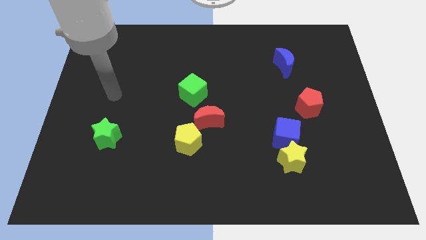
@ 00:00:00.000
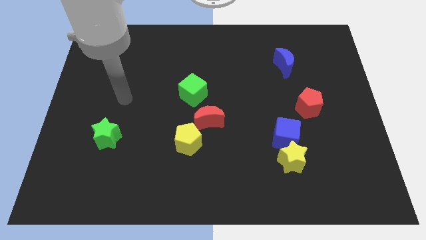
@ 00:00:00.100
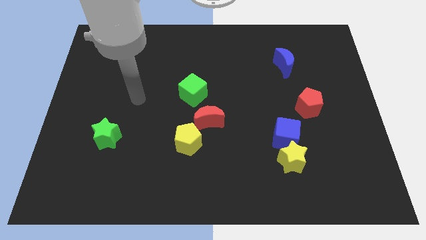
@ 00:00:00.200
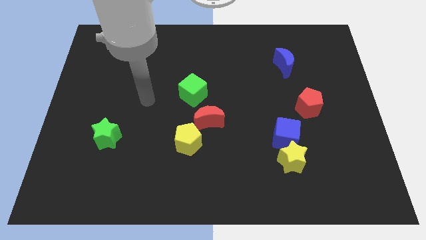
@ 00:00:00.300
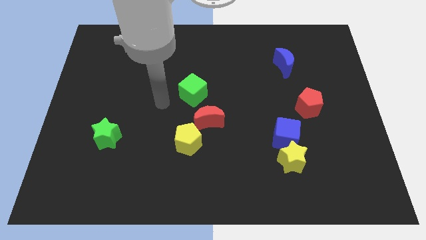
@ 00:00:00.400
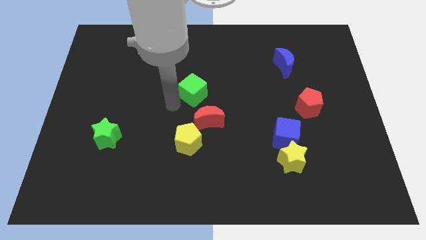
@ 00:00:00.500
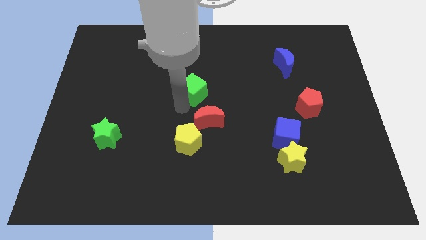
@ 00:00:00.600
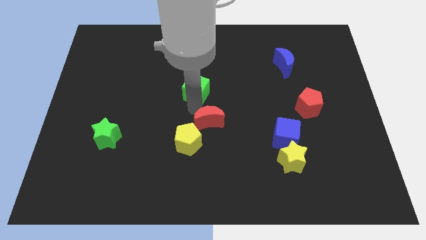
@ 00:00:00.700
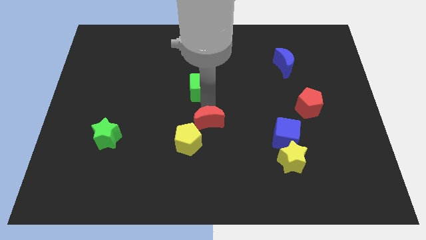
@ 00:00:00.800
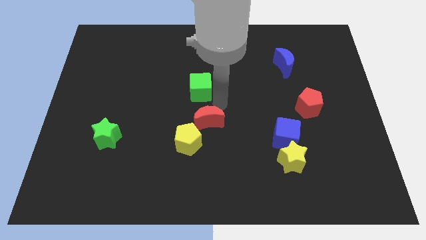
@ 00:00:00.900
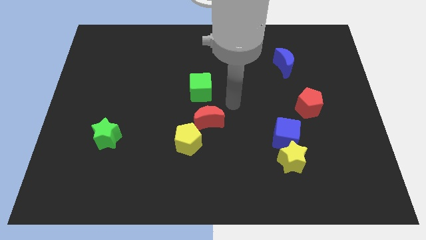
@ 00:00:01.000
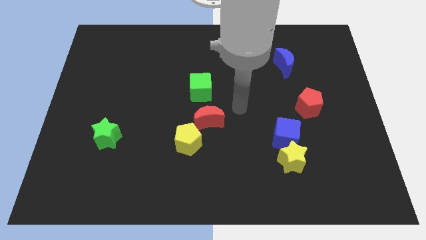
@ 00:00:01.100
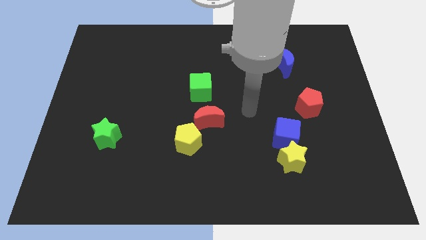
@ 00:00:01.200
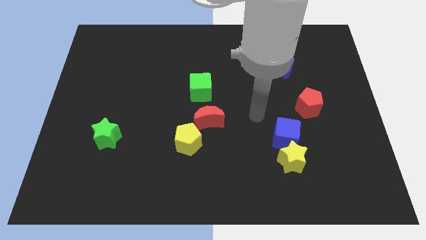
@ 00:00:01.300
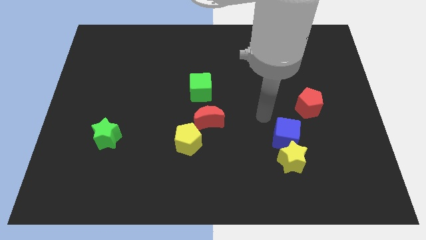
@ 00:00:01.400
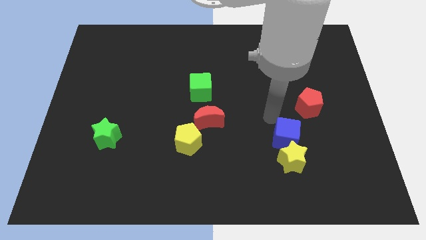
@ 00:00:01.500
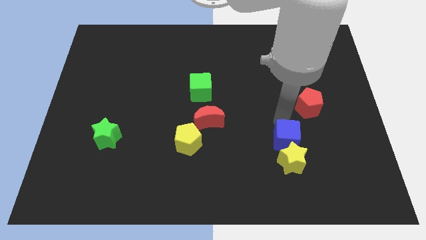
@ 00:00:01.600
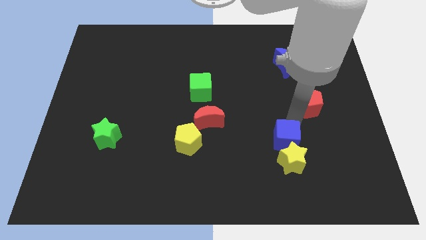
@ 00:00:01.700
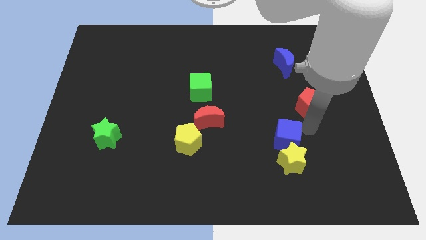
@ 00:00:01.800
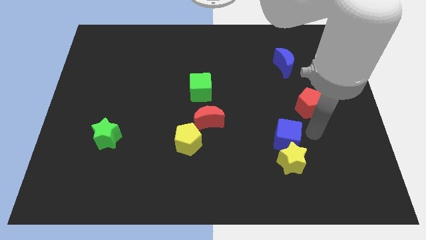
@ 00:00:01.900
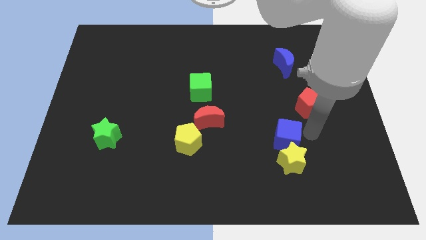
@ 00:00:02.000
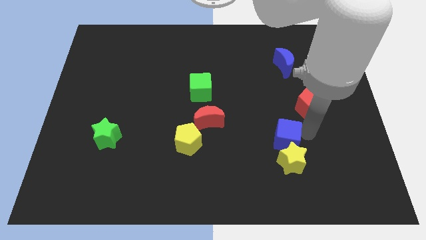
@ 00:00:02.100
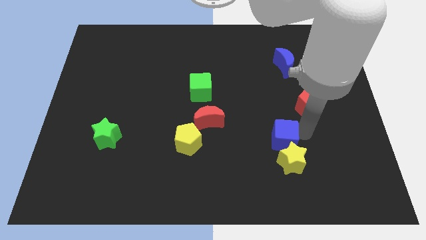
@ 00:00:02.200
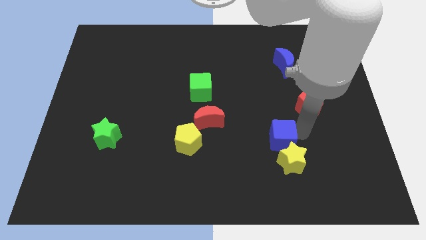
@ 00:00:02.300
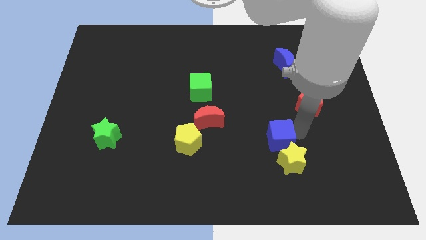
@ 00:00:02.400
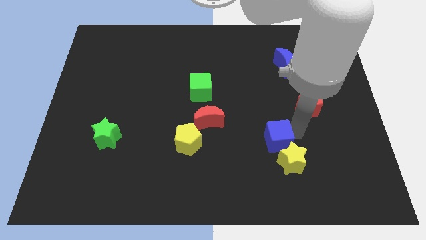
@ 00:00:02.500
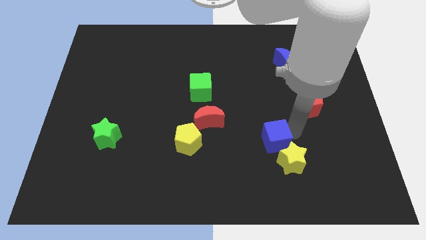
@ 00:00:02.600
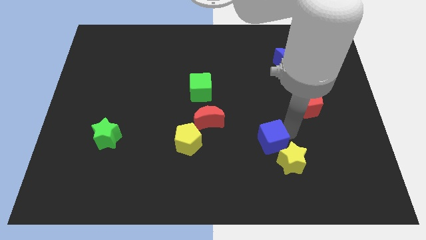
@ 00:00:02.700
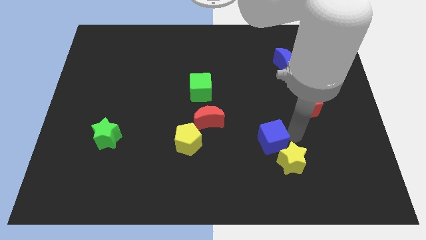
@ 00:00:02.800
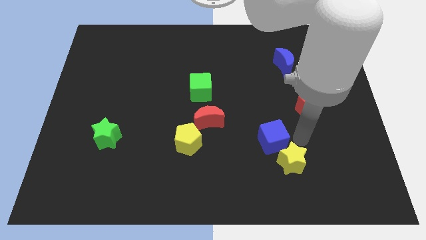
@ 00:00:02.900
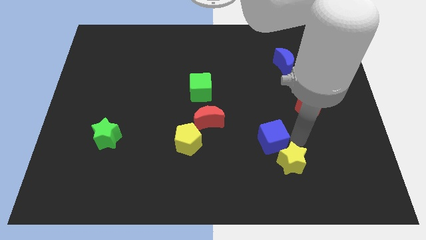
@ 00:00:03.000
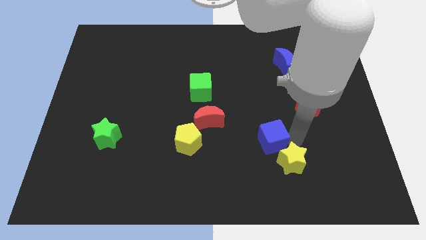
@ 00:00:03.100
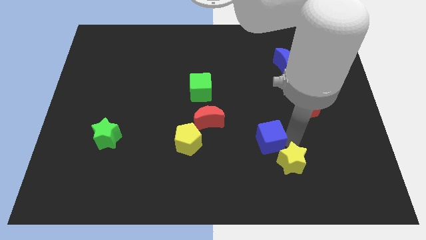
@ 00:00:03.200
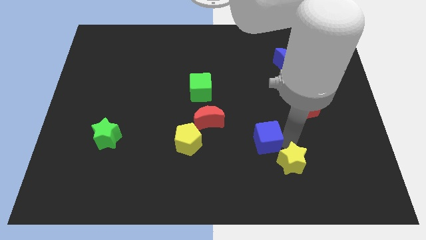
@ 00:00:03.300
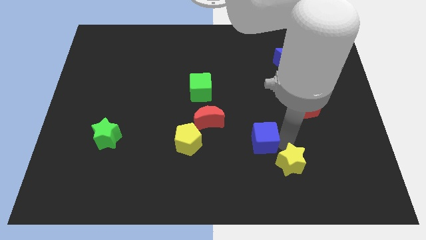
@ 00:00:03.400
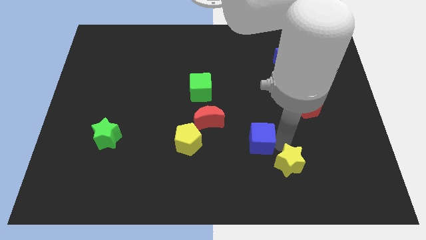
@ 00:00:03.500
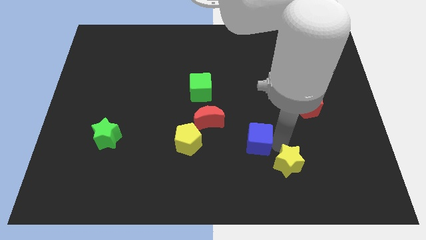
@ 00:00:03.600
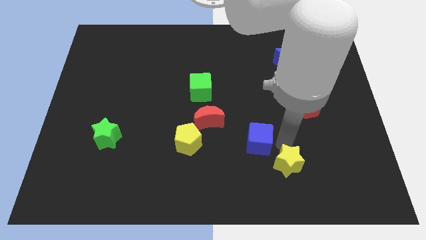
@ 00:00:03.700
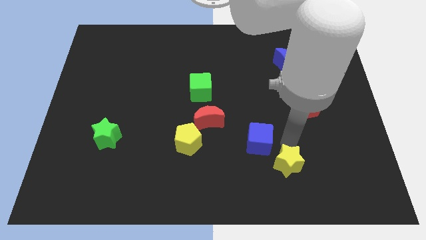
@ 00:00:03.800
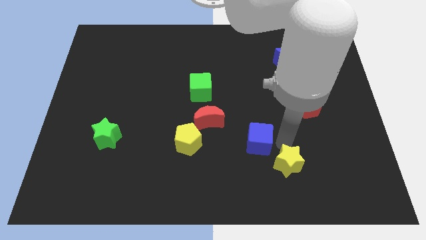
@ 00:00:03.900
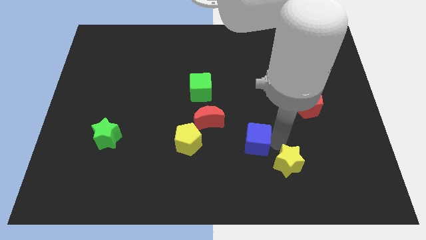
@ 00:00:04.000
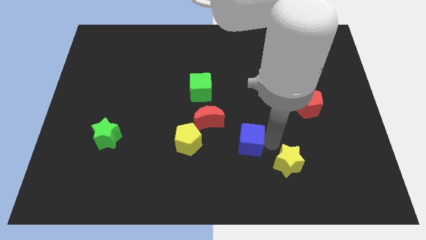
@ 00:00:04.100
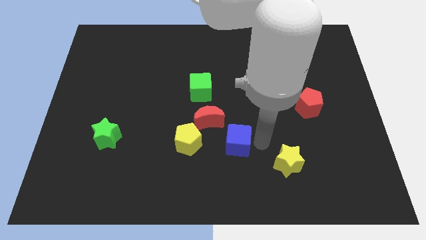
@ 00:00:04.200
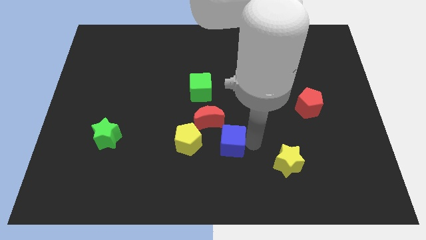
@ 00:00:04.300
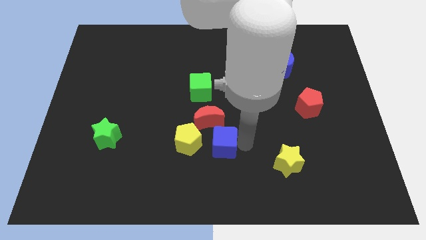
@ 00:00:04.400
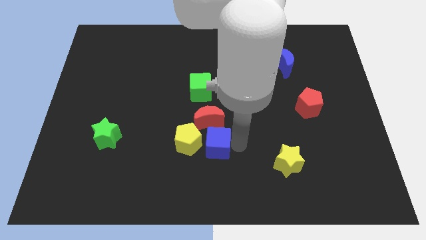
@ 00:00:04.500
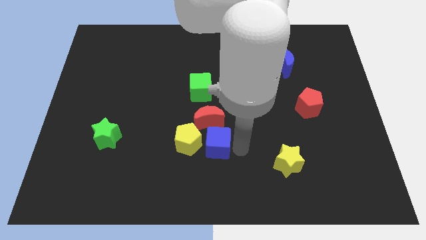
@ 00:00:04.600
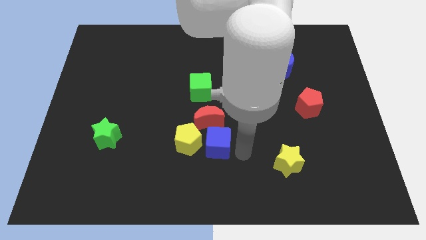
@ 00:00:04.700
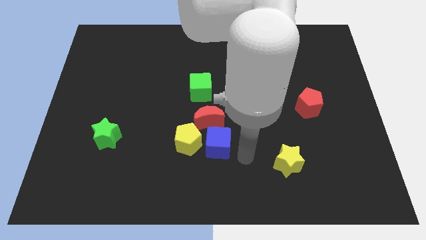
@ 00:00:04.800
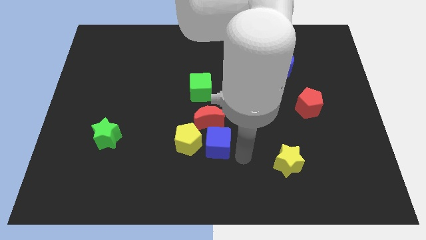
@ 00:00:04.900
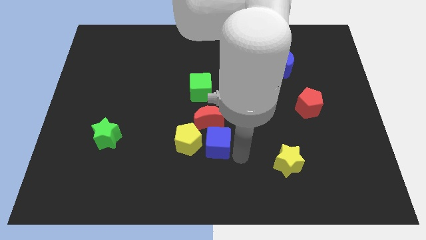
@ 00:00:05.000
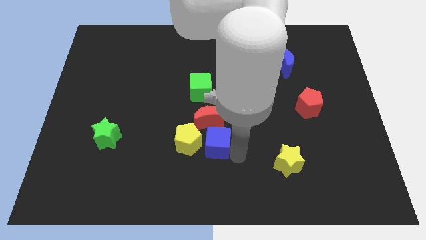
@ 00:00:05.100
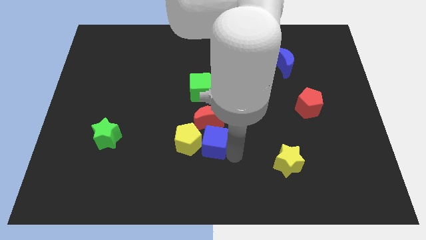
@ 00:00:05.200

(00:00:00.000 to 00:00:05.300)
push the blue cube towards the yellow pentagon

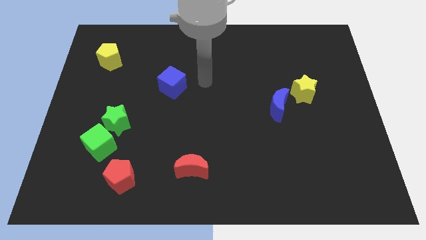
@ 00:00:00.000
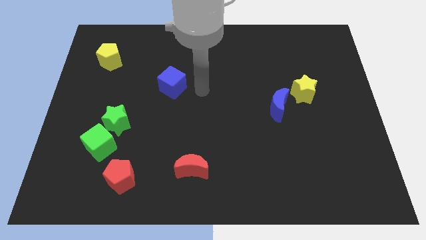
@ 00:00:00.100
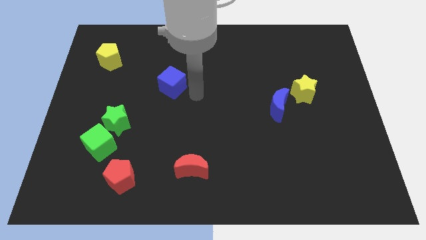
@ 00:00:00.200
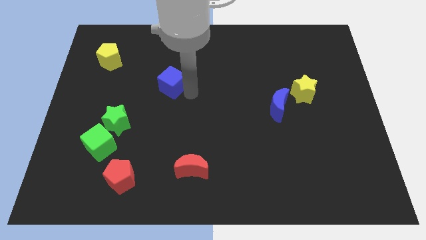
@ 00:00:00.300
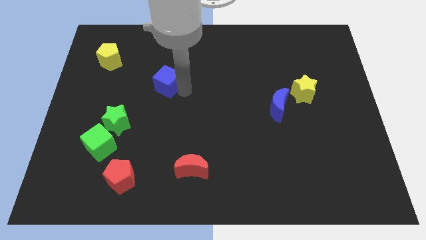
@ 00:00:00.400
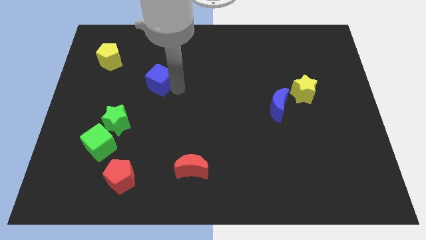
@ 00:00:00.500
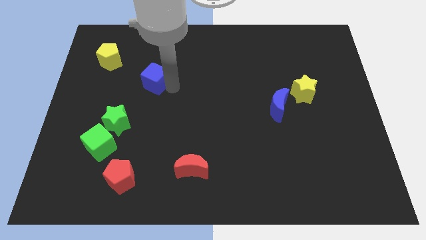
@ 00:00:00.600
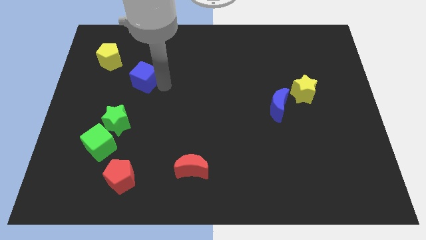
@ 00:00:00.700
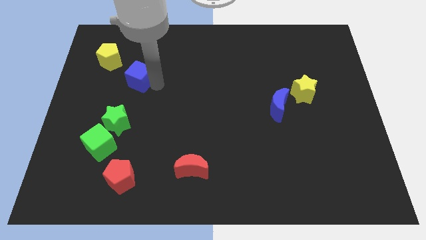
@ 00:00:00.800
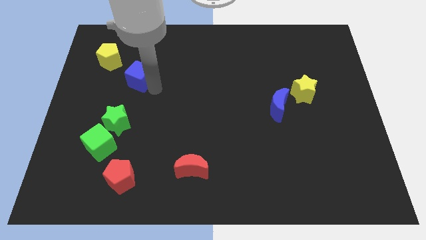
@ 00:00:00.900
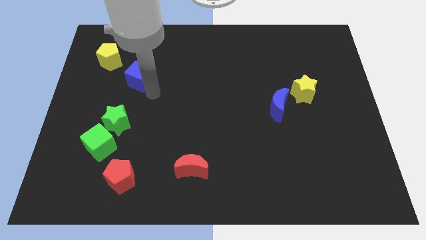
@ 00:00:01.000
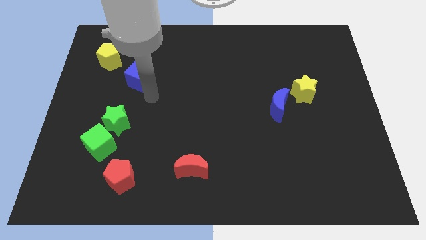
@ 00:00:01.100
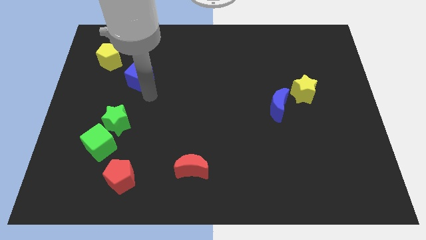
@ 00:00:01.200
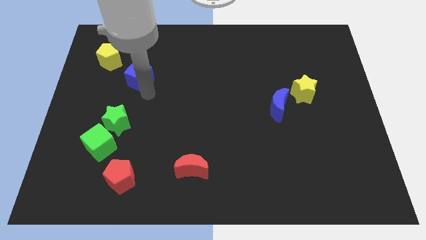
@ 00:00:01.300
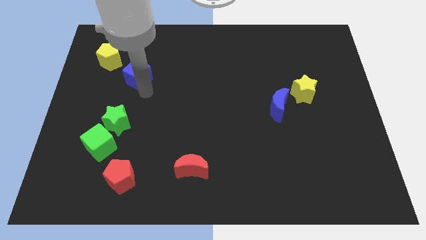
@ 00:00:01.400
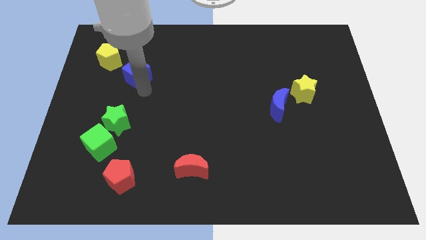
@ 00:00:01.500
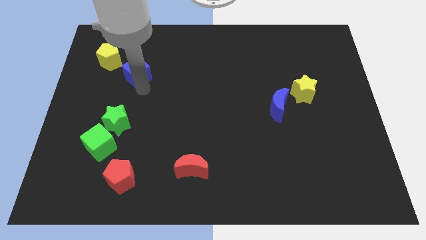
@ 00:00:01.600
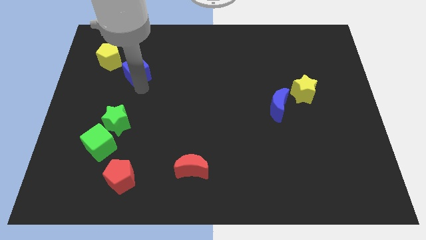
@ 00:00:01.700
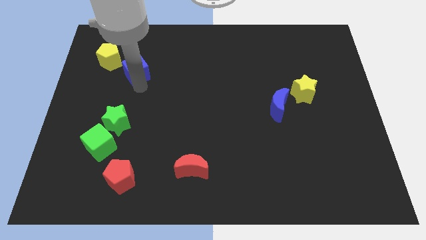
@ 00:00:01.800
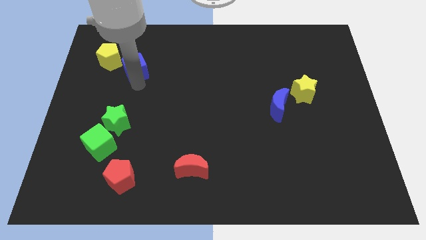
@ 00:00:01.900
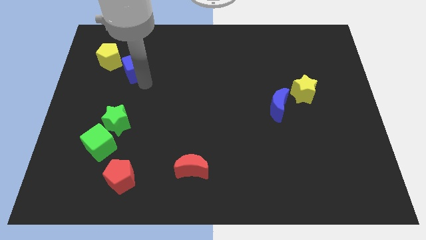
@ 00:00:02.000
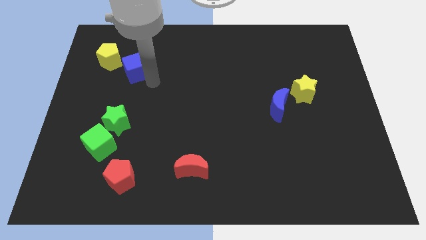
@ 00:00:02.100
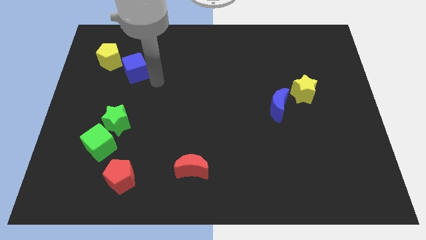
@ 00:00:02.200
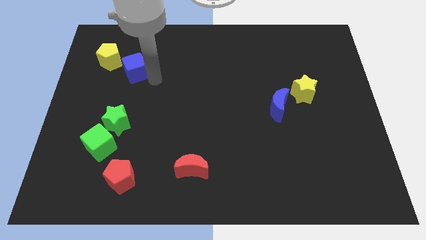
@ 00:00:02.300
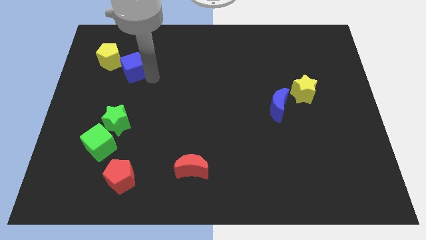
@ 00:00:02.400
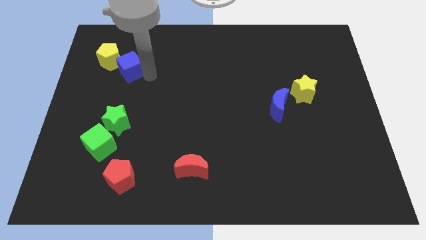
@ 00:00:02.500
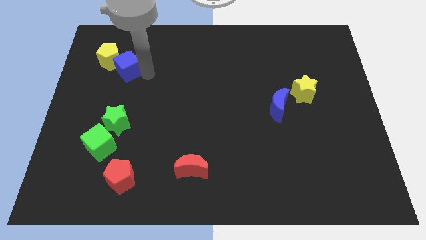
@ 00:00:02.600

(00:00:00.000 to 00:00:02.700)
move the blue cube towards the yellow pentagon
